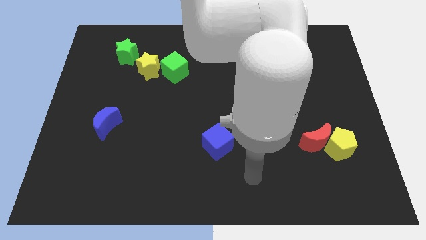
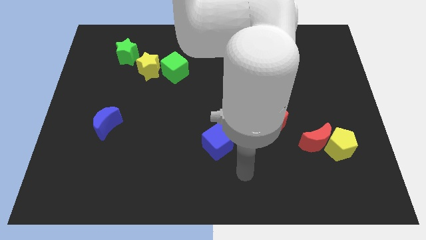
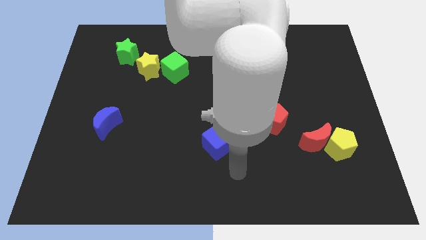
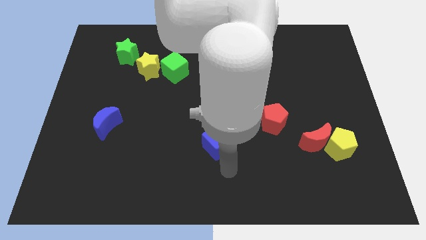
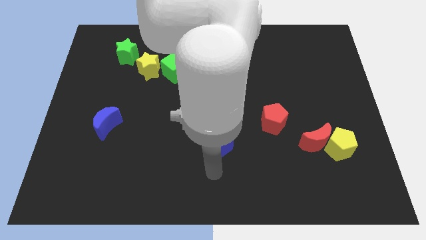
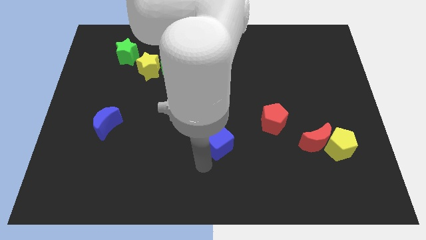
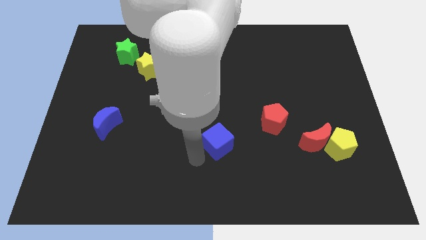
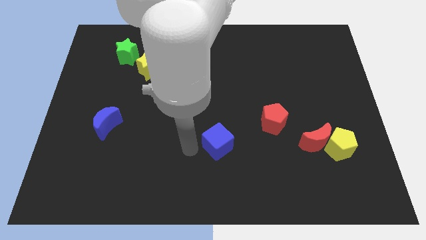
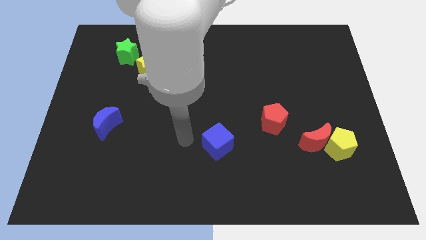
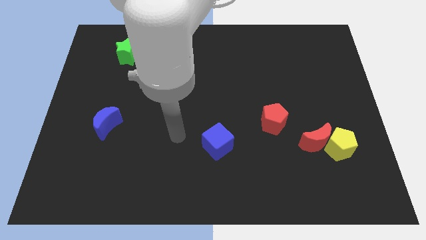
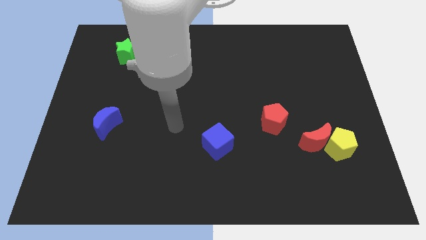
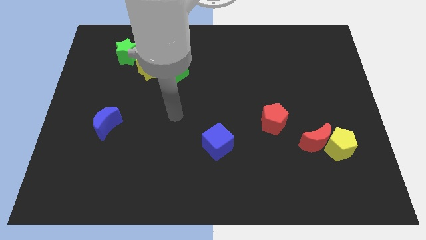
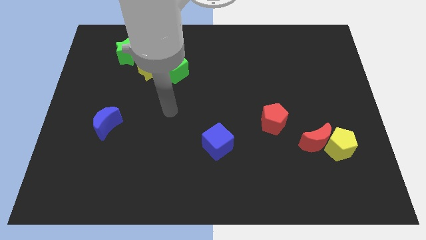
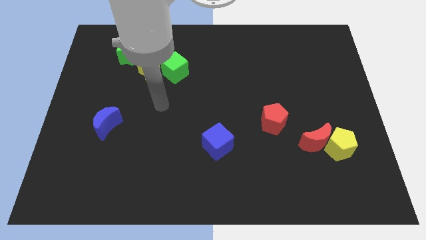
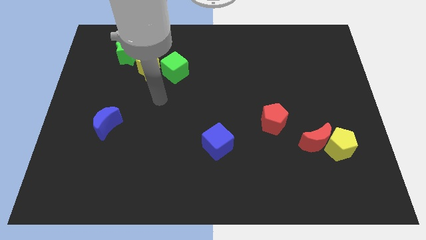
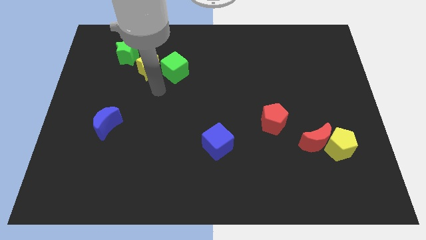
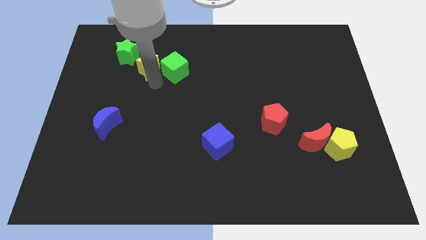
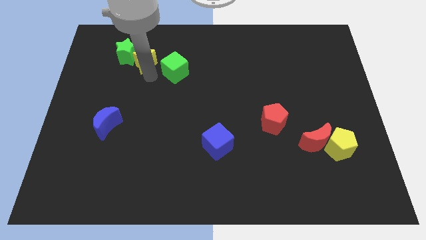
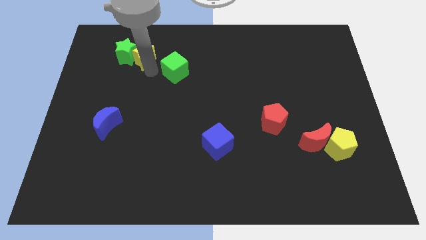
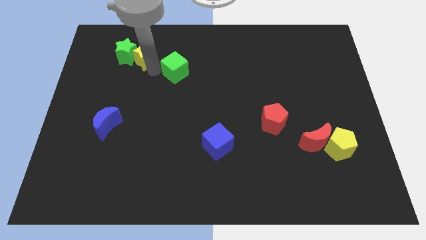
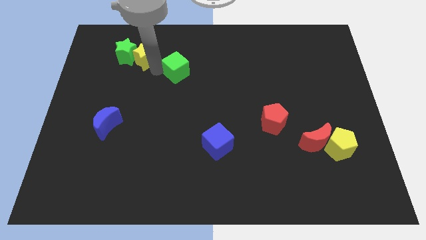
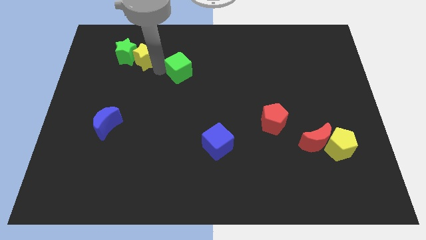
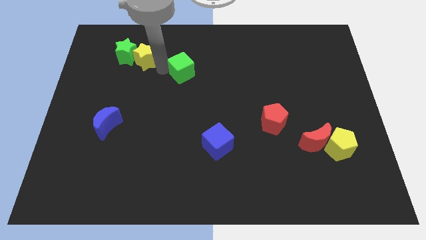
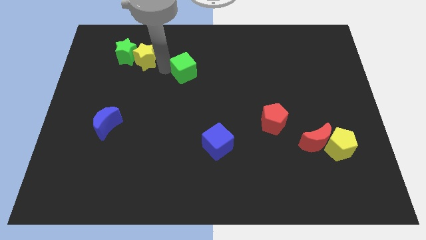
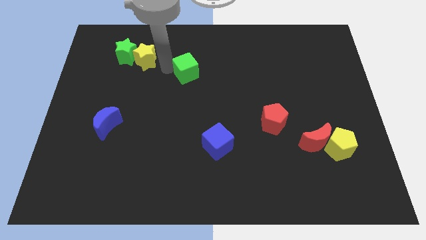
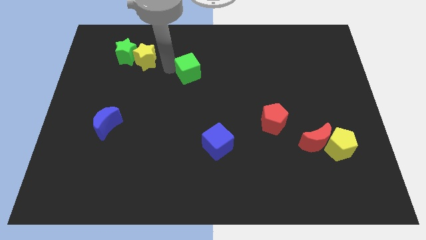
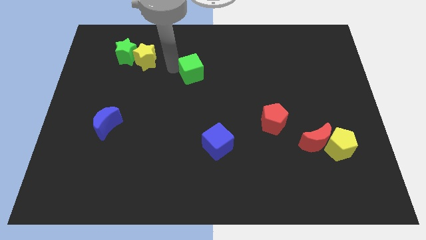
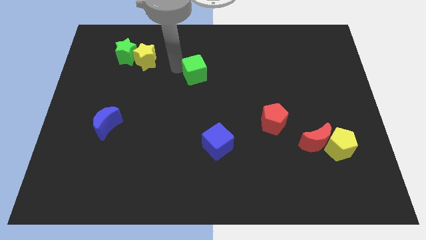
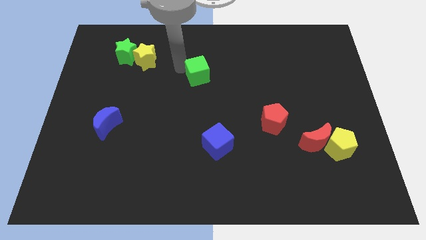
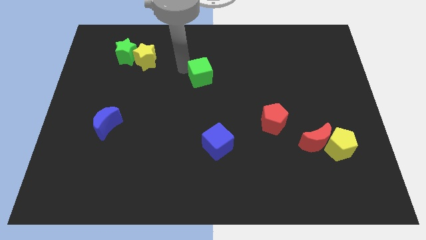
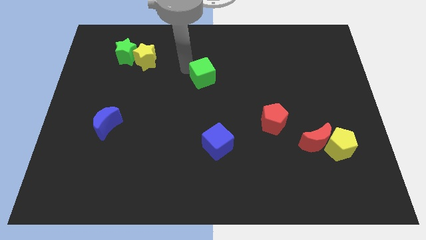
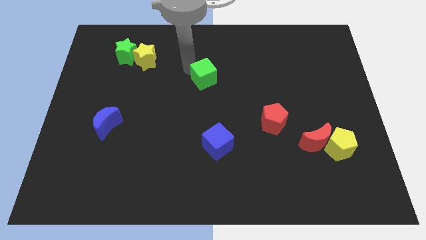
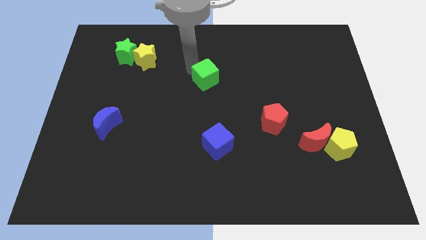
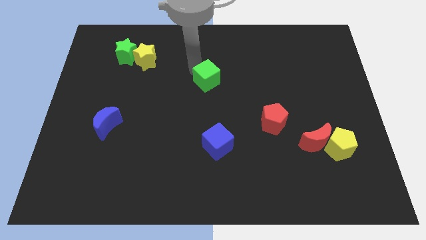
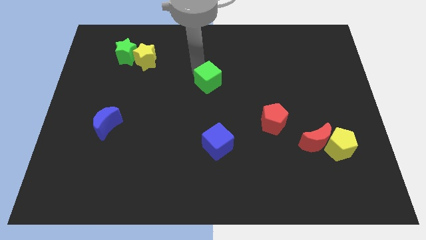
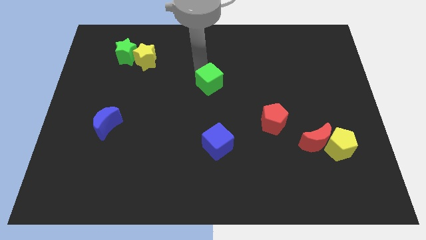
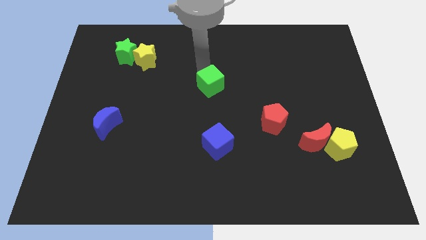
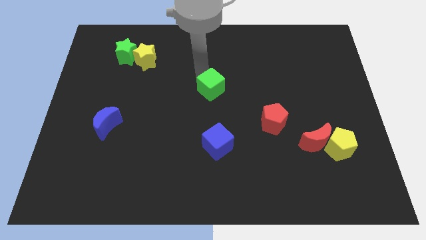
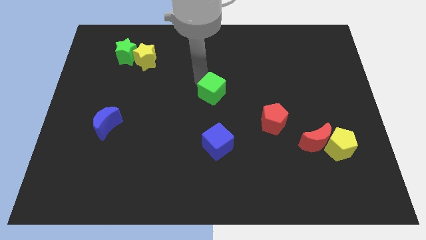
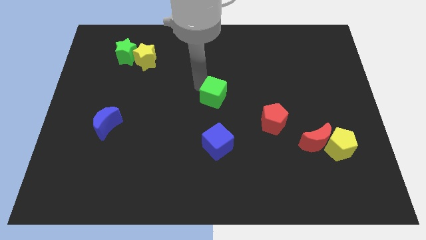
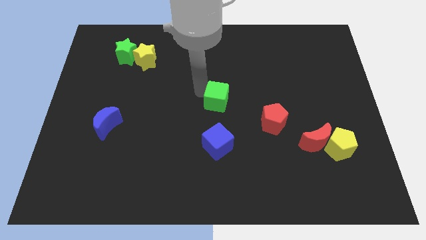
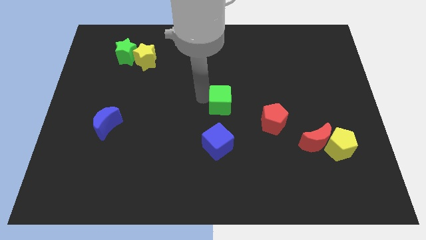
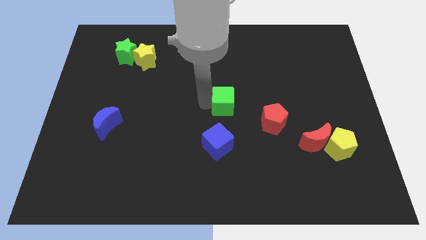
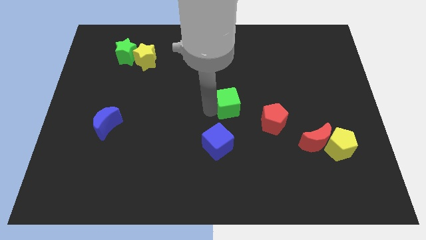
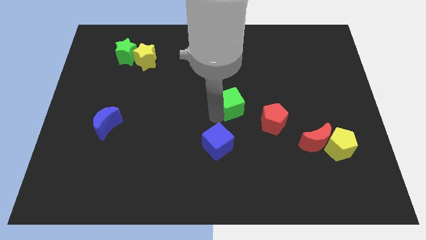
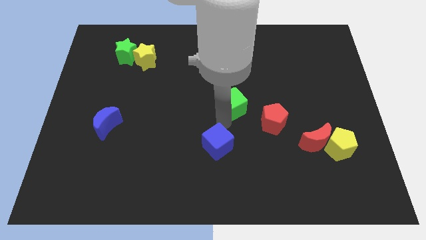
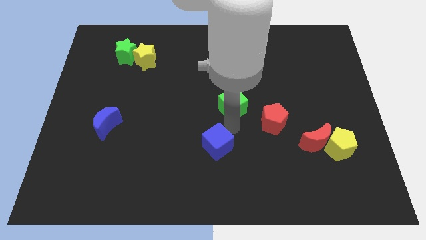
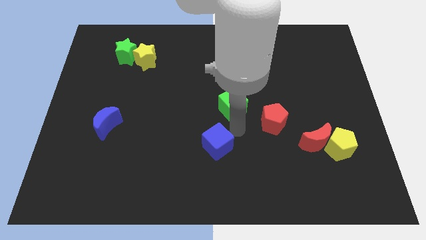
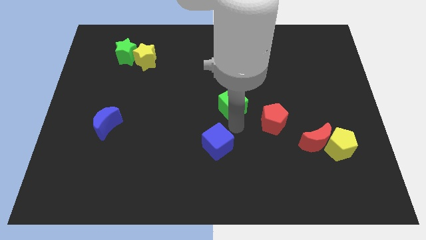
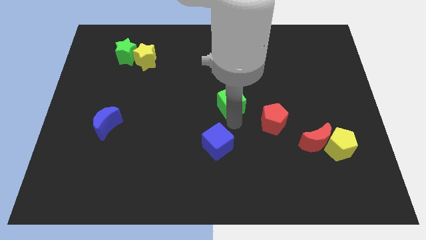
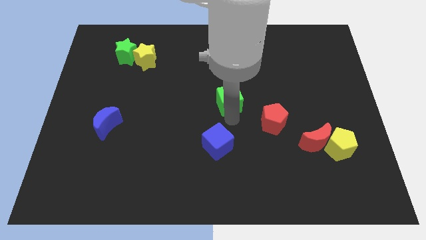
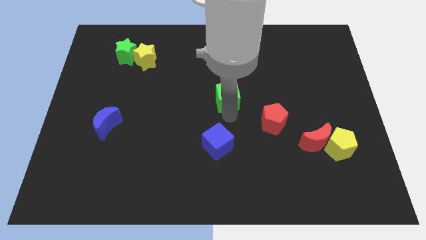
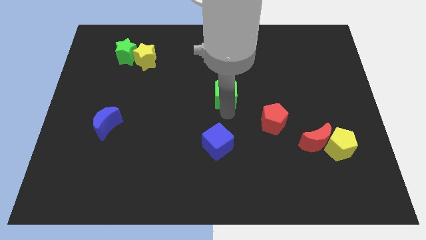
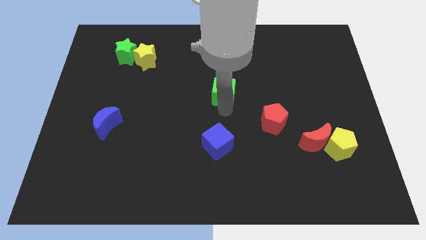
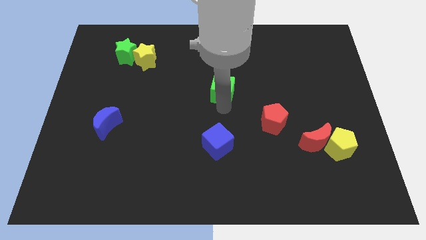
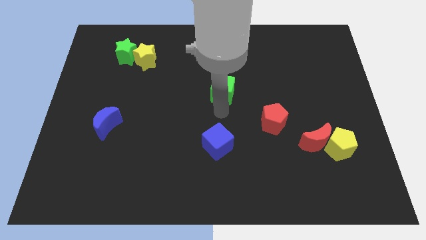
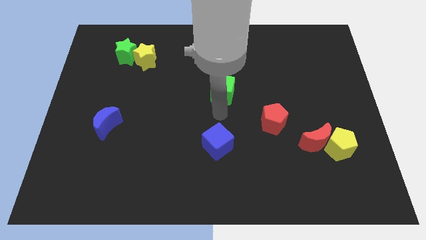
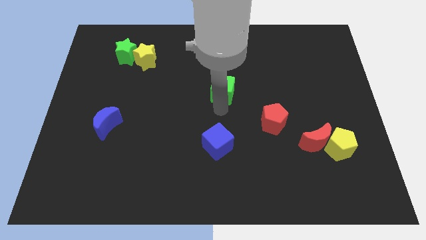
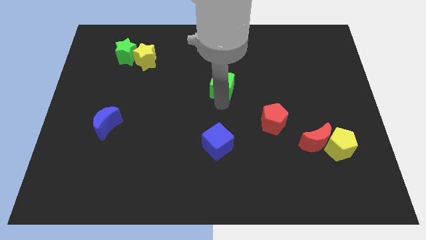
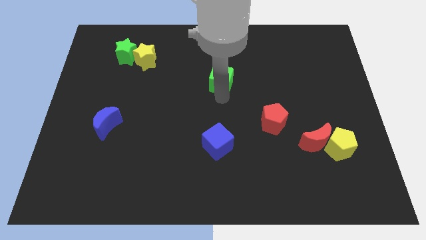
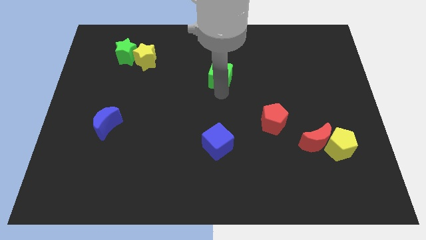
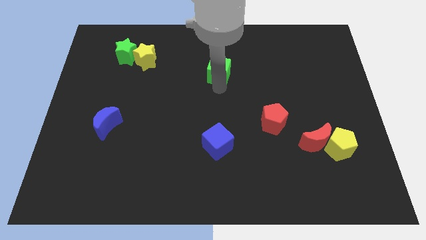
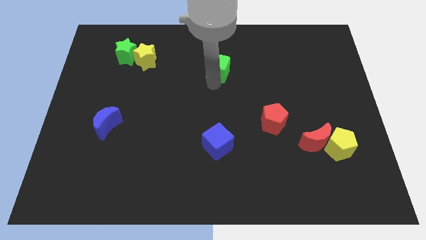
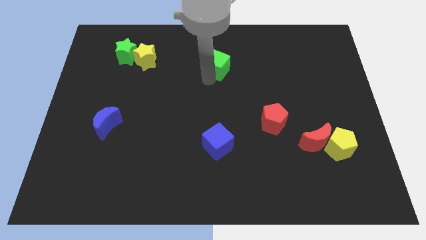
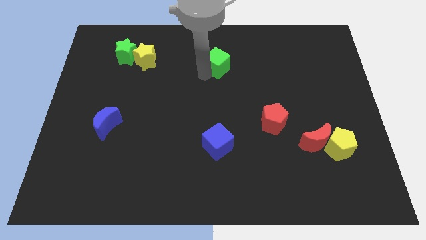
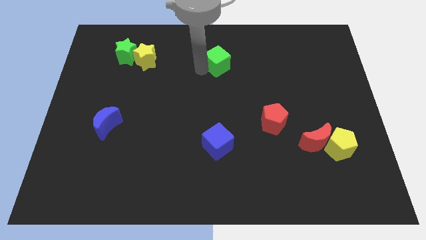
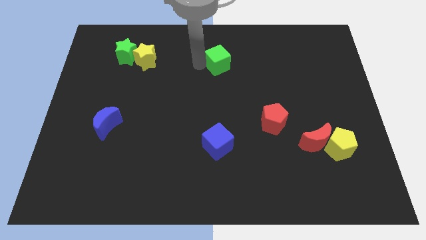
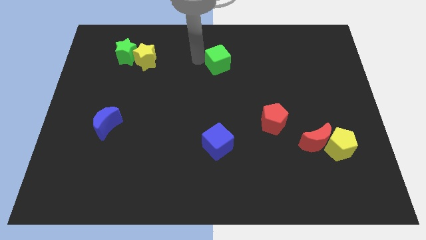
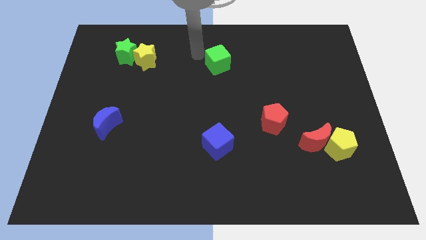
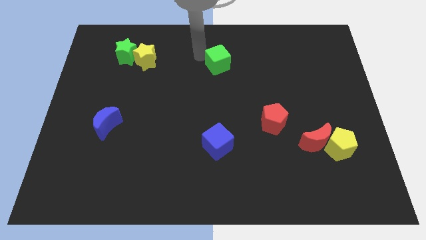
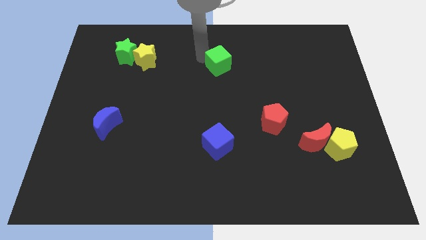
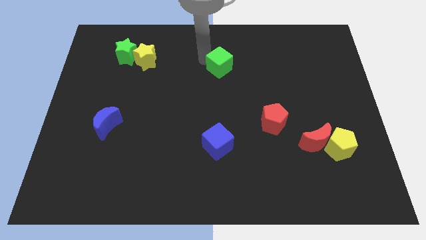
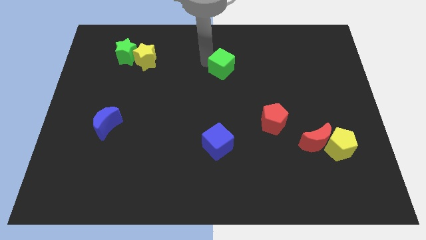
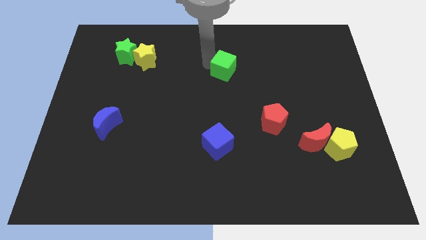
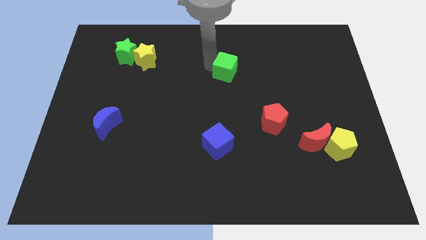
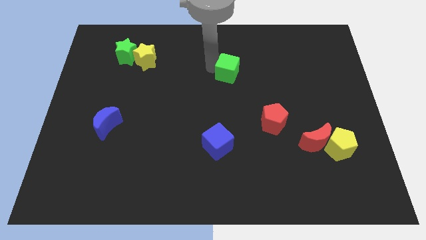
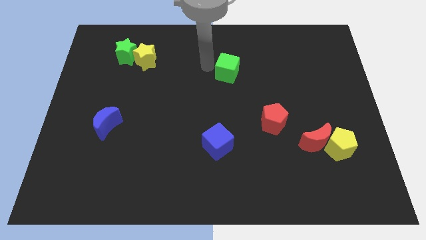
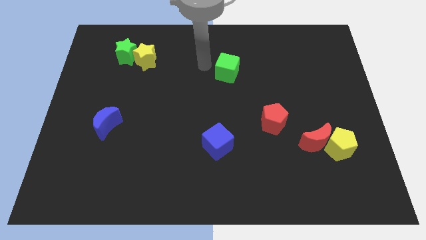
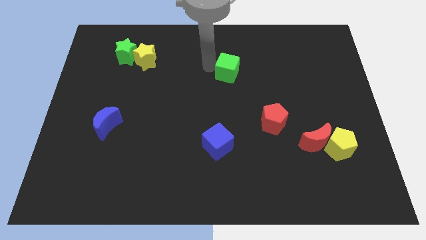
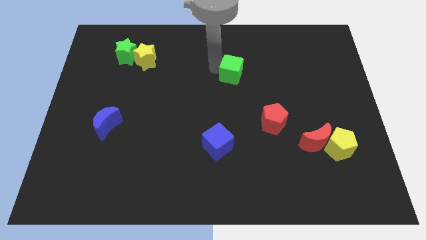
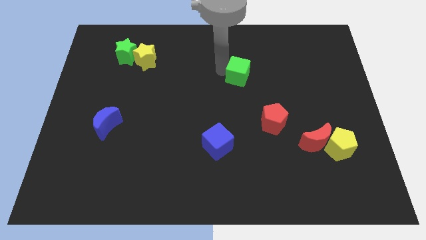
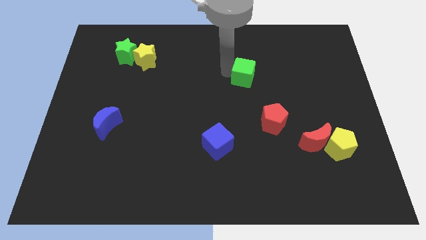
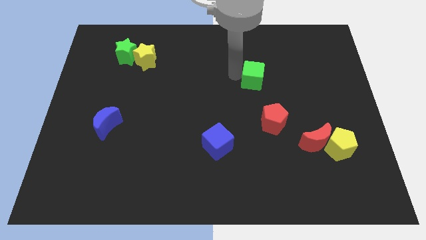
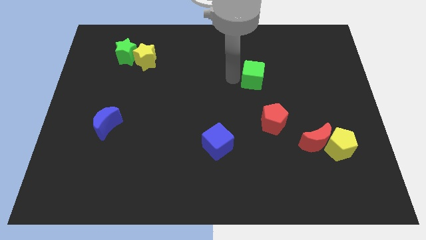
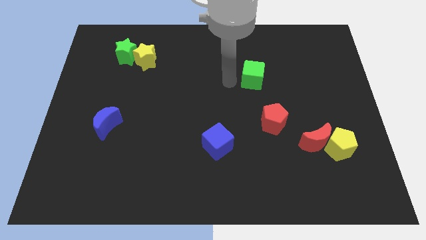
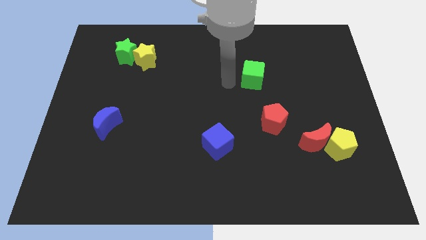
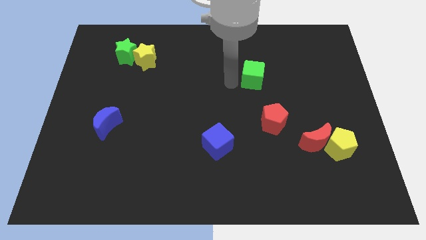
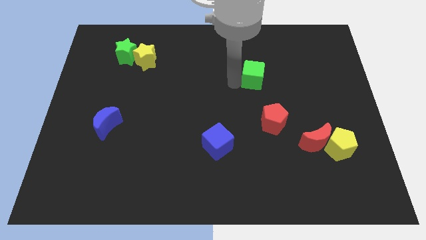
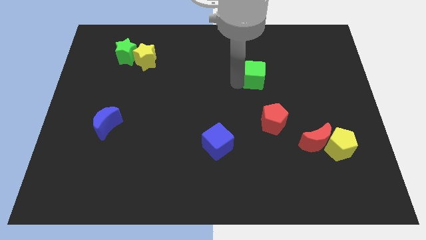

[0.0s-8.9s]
move the green cube right
